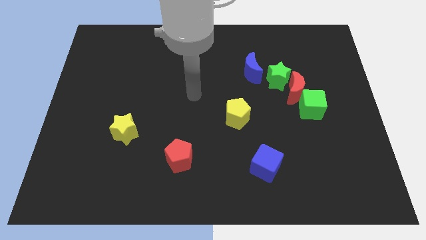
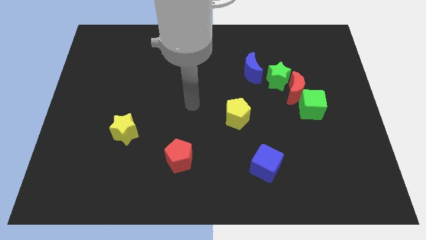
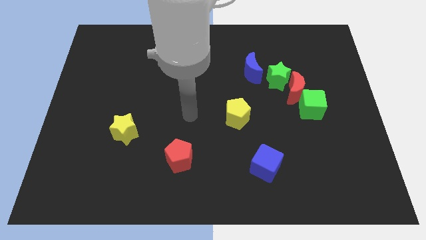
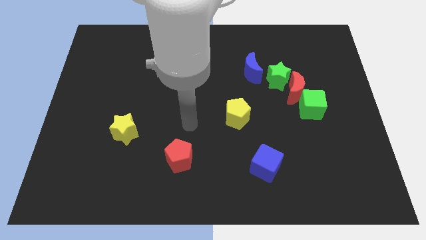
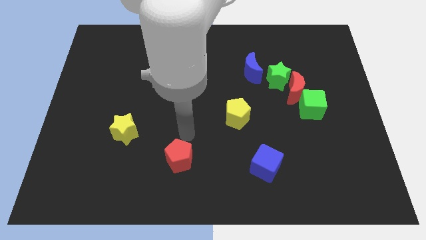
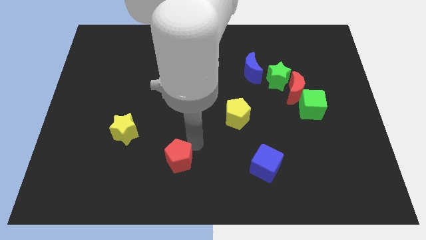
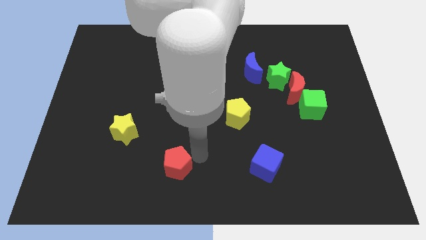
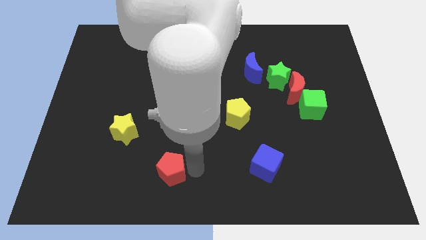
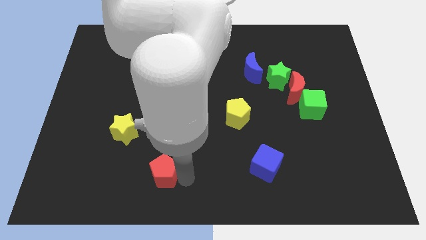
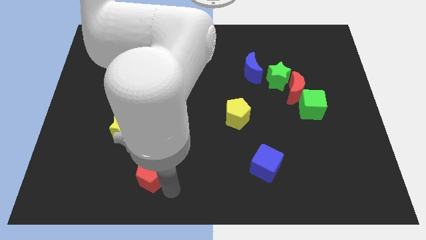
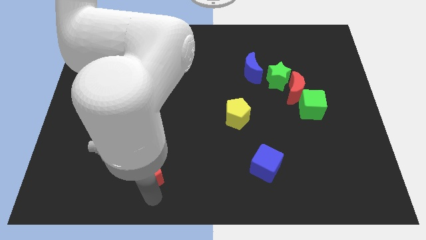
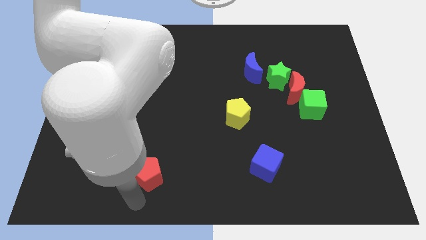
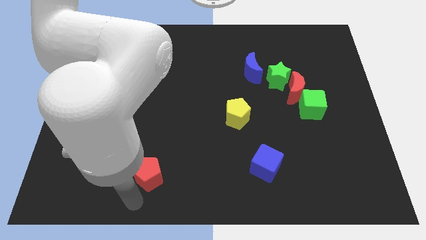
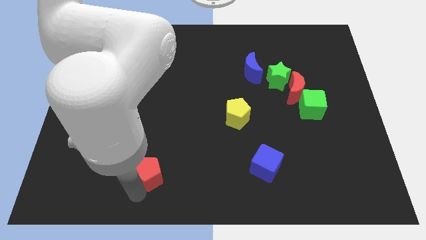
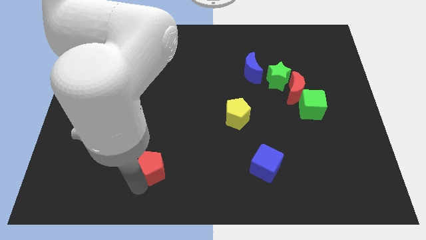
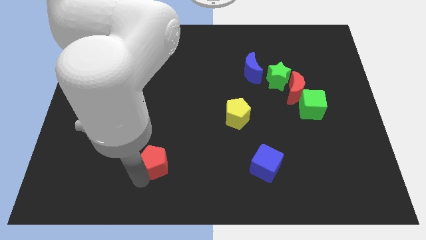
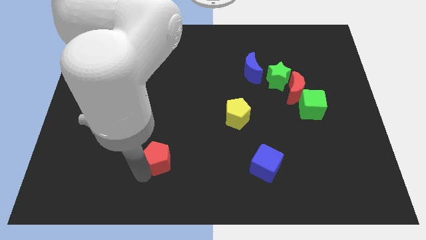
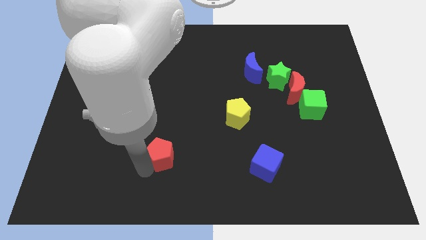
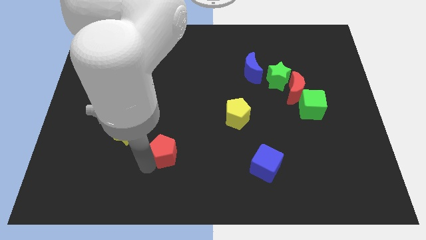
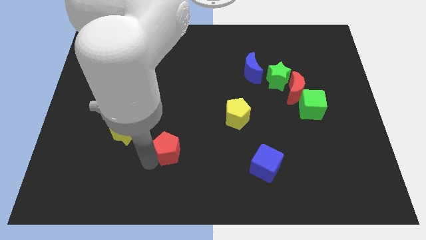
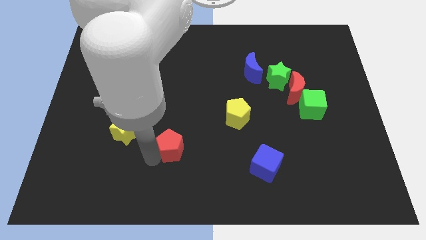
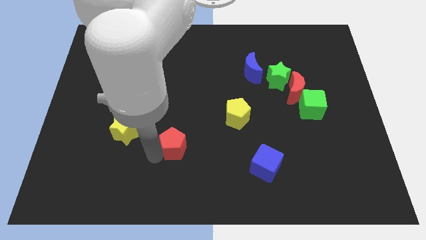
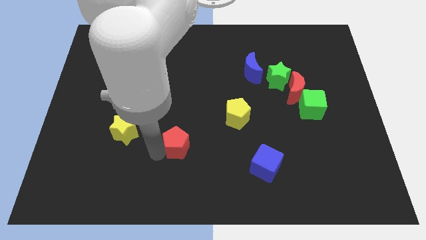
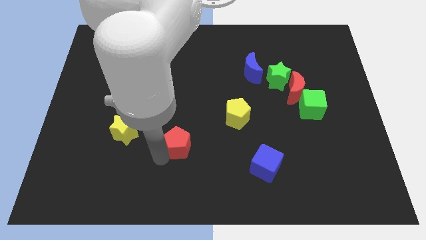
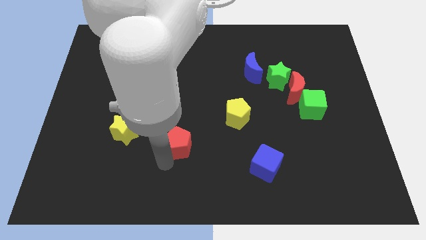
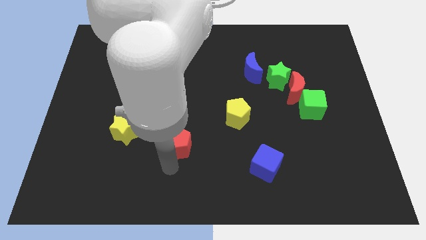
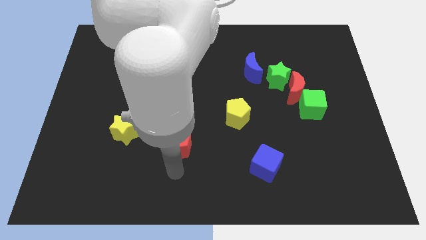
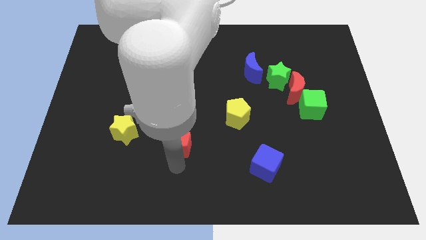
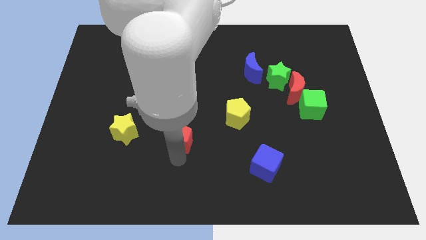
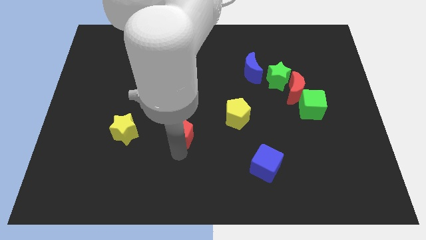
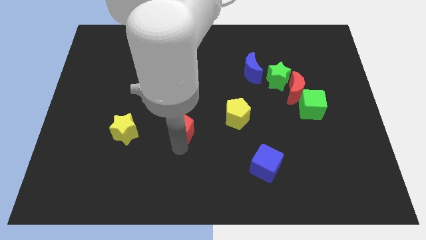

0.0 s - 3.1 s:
push the red pentagon upwards a little

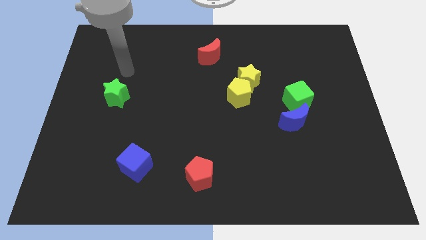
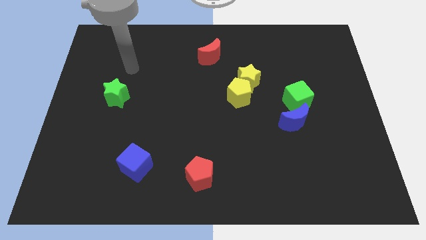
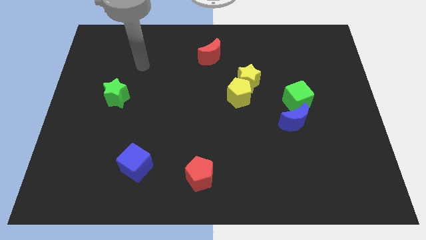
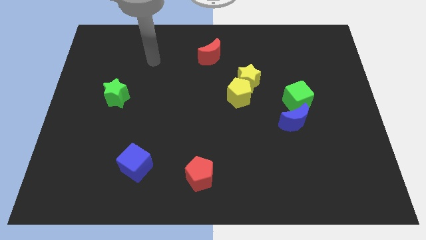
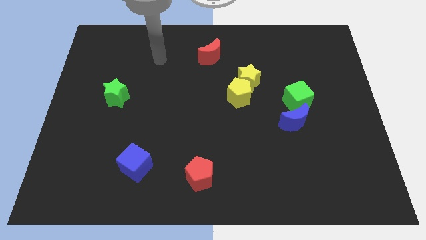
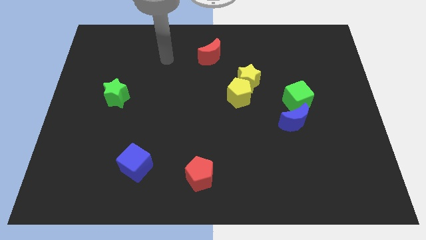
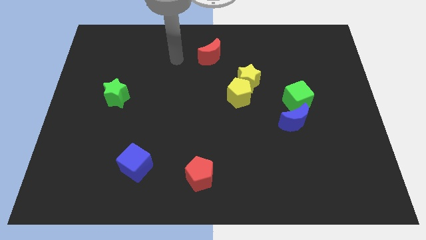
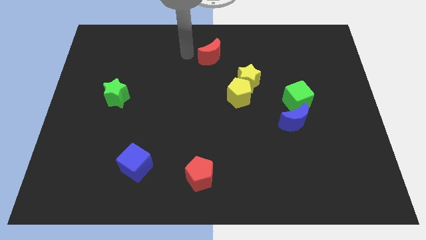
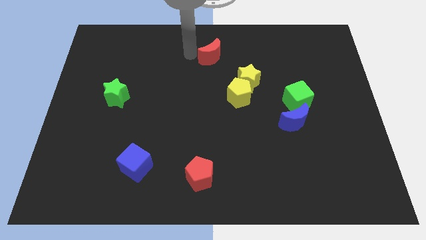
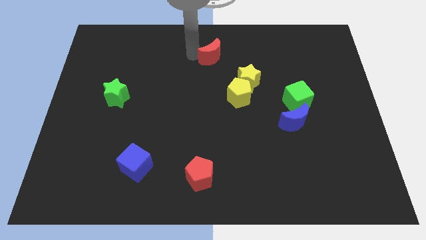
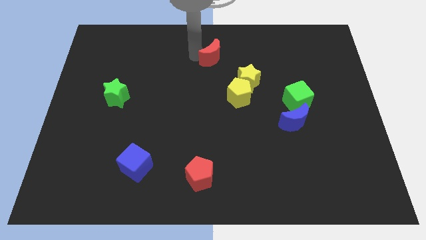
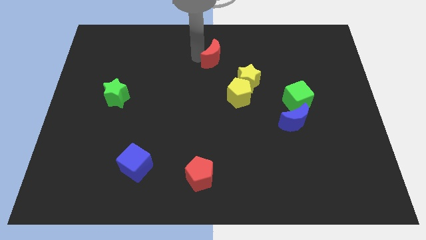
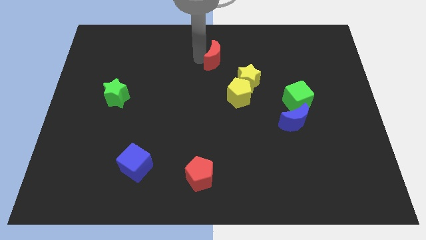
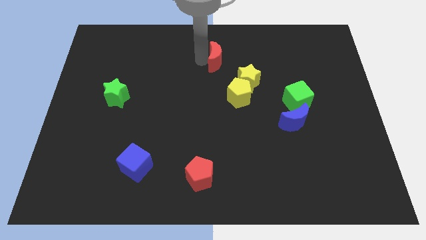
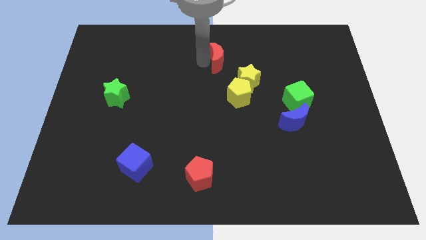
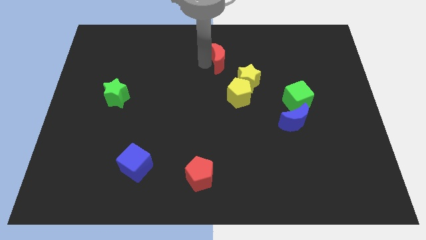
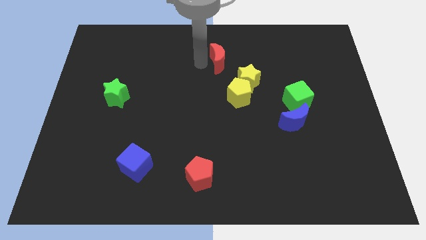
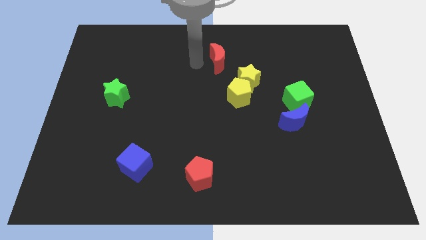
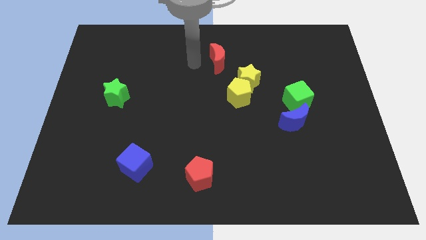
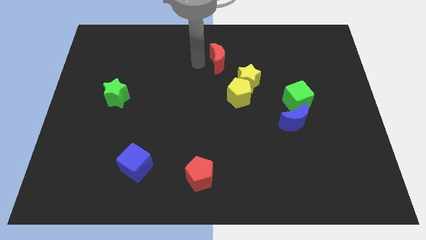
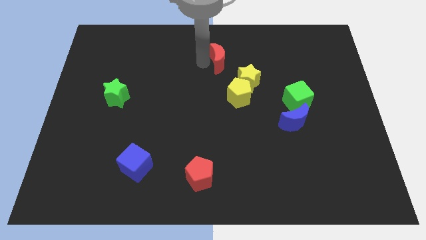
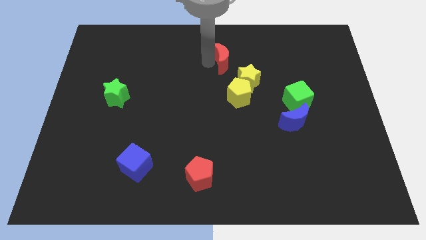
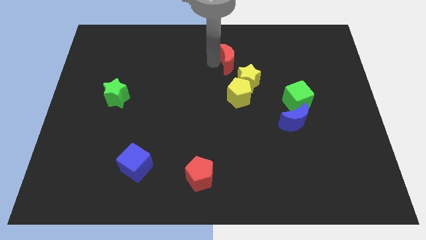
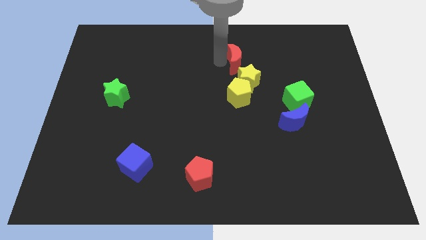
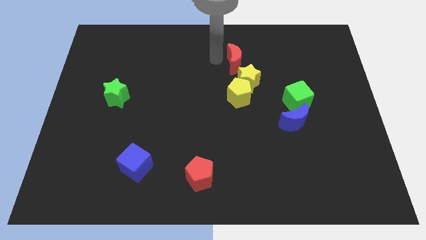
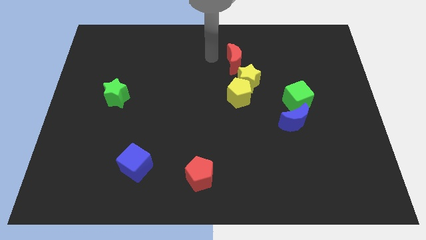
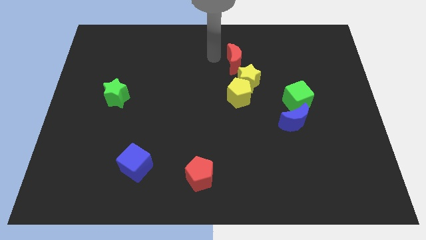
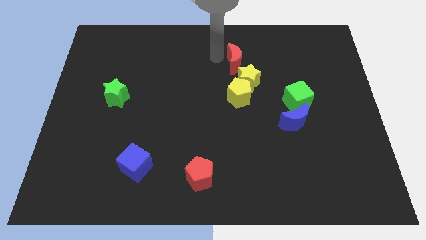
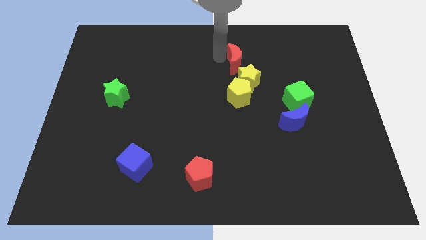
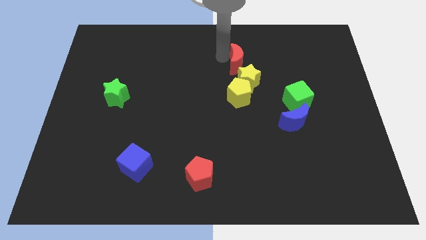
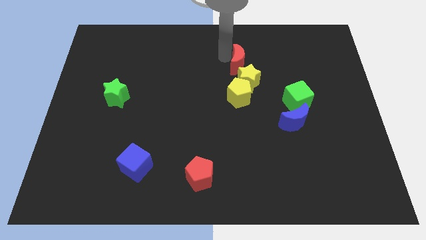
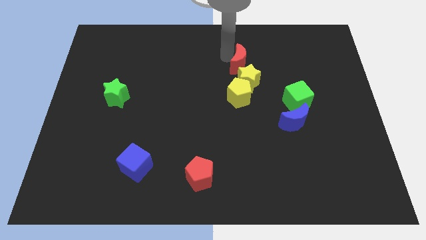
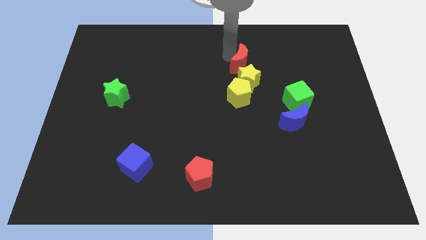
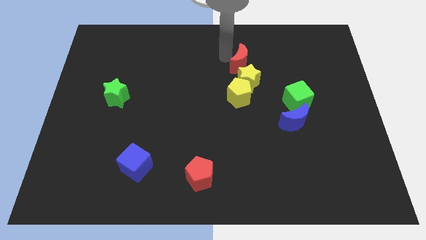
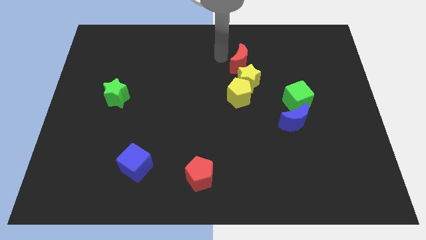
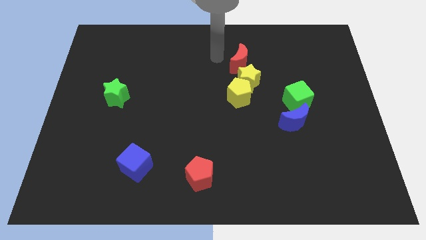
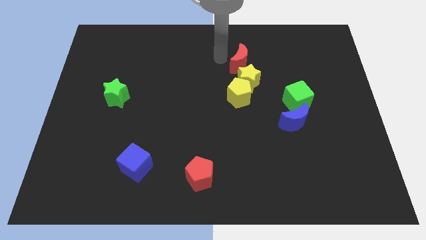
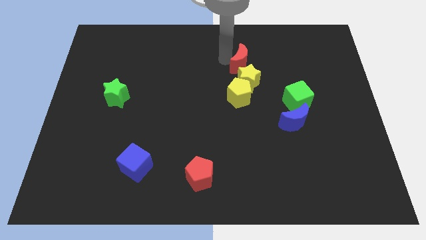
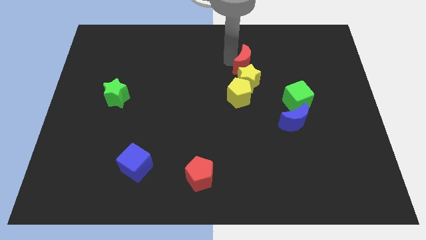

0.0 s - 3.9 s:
slightly slide the red moon downwards and right

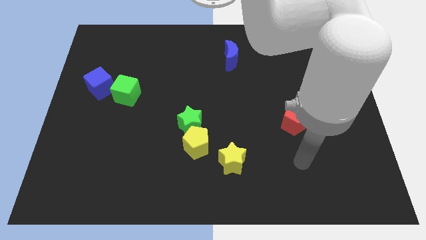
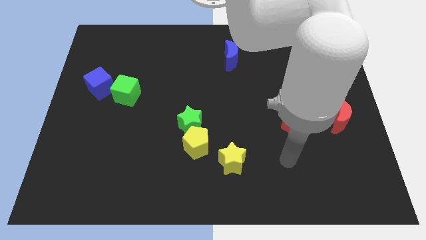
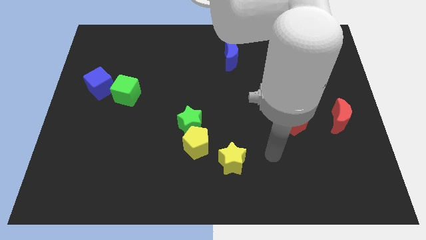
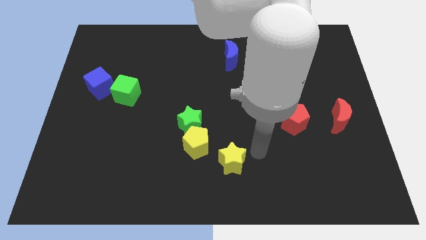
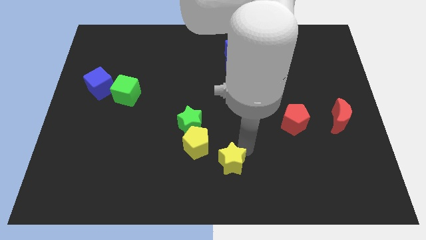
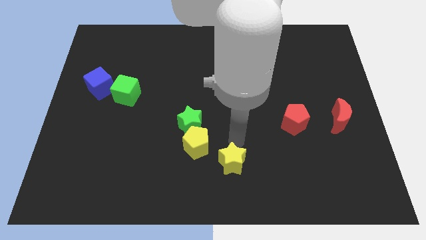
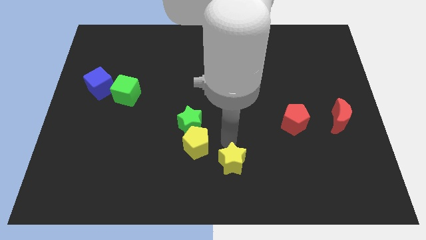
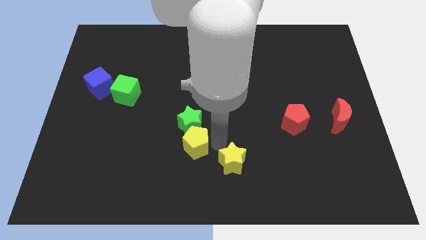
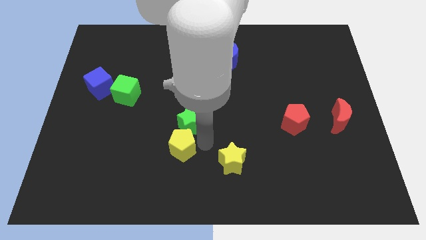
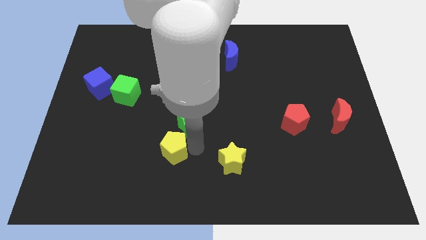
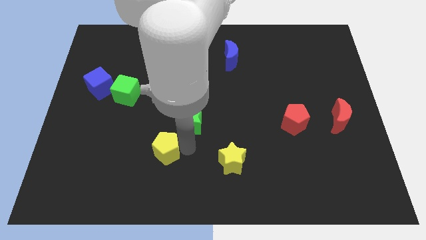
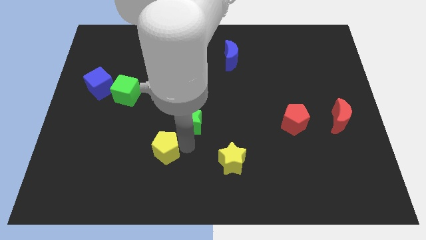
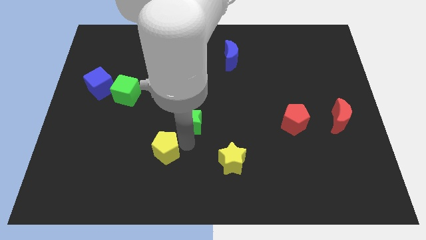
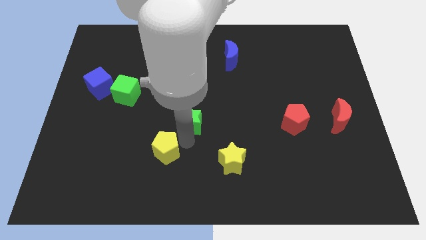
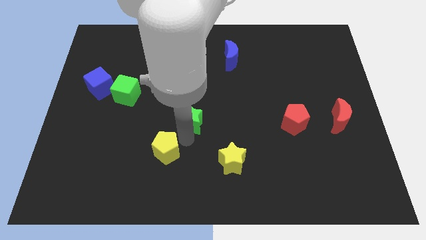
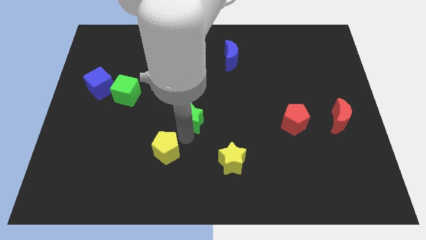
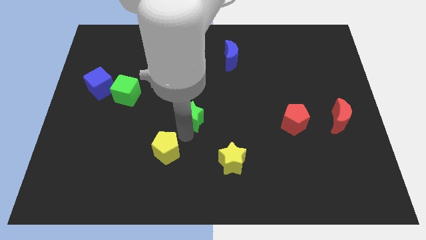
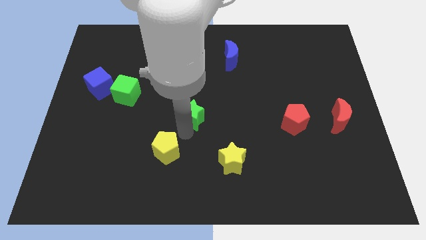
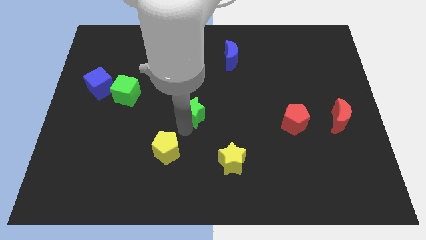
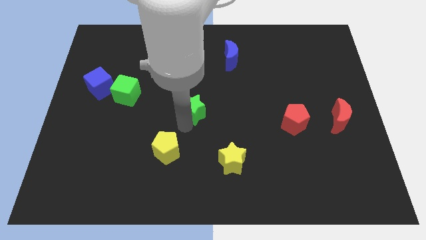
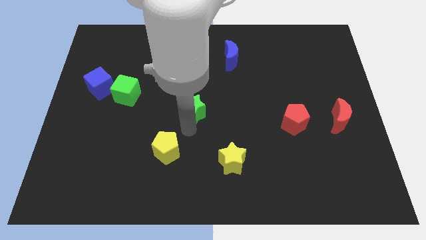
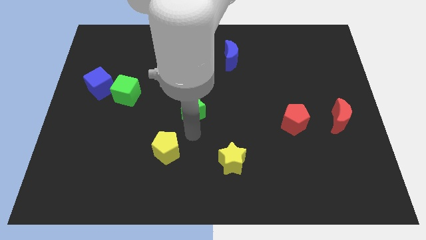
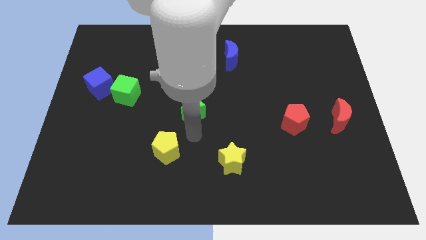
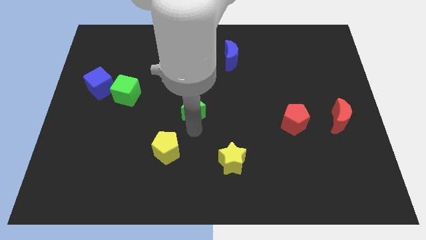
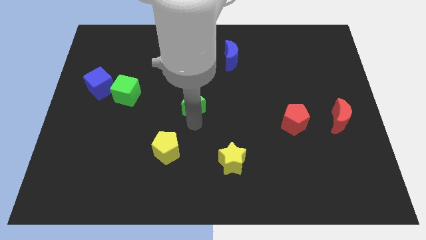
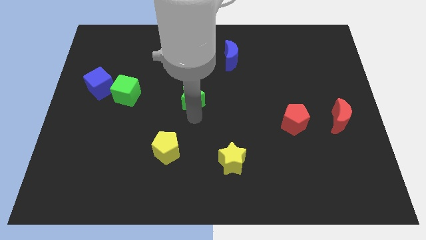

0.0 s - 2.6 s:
slightly move the green star up
